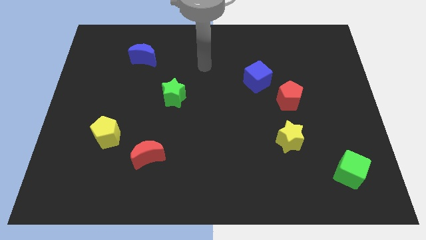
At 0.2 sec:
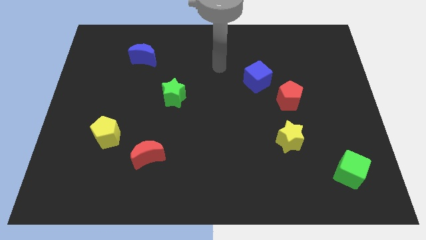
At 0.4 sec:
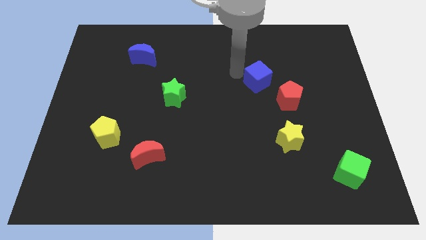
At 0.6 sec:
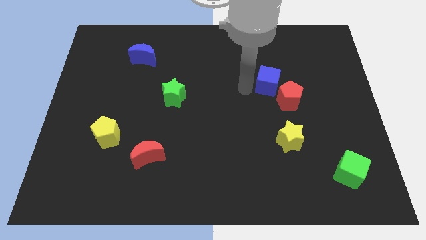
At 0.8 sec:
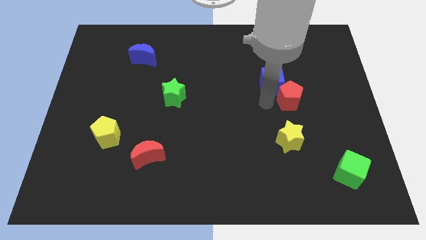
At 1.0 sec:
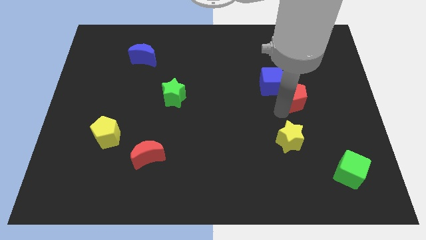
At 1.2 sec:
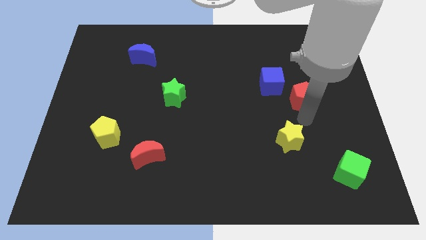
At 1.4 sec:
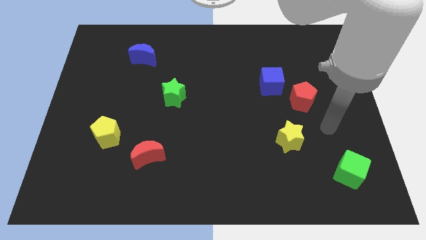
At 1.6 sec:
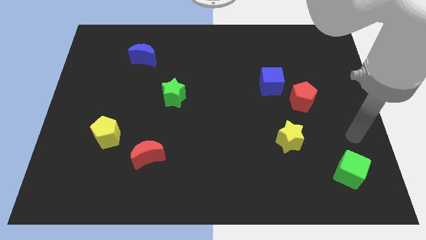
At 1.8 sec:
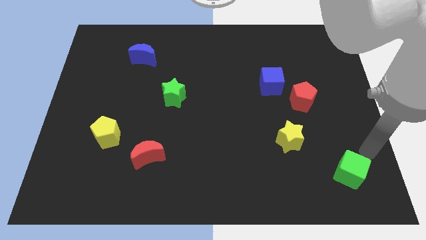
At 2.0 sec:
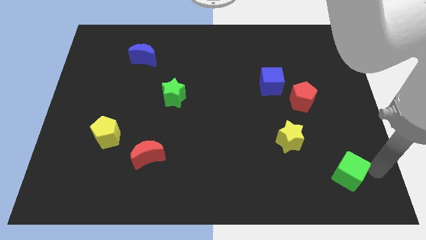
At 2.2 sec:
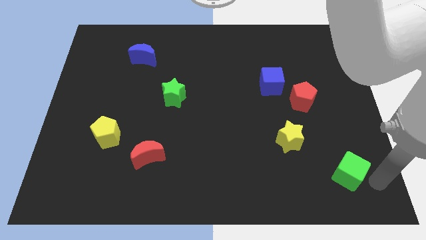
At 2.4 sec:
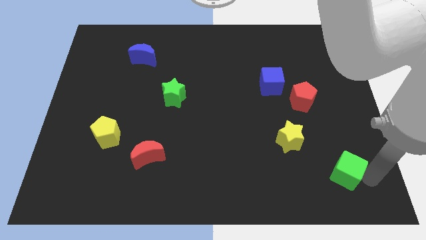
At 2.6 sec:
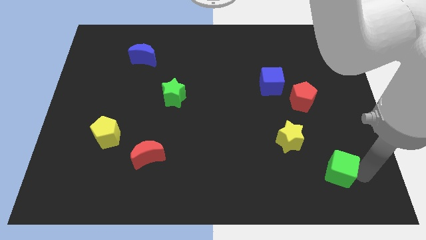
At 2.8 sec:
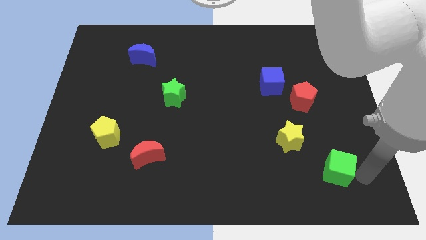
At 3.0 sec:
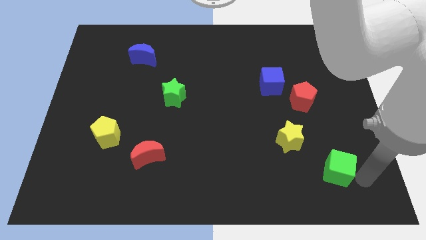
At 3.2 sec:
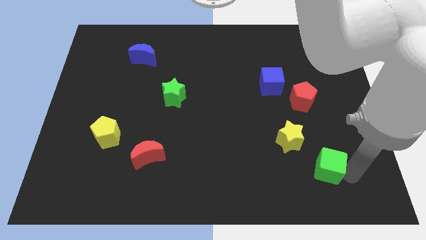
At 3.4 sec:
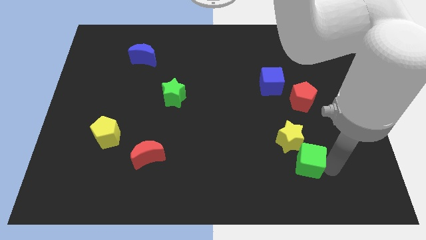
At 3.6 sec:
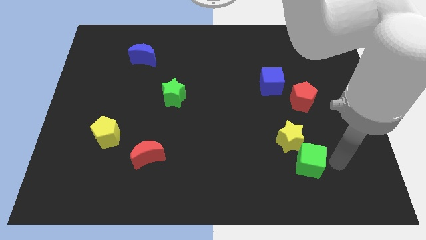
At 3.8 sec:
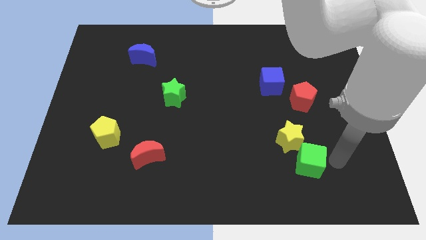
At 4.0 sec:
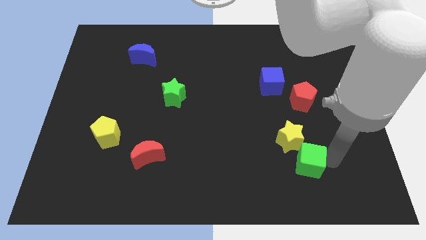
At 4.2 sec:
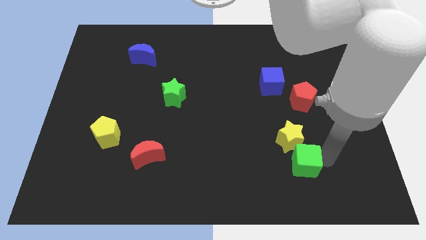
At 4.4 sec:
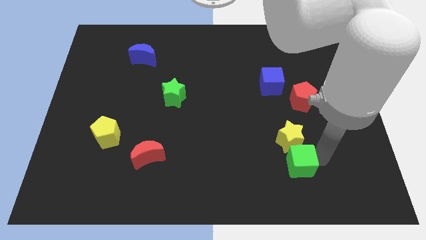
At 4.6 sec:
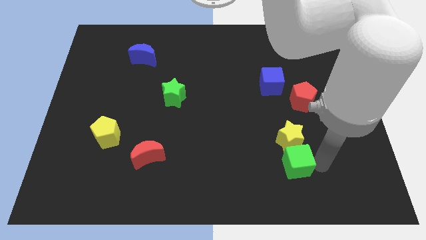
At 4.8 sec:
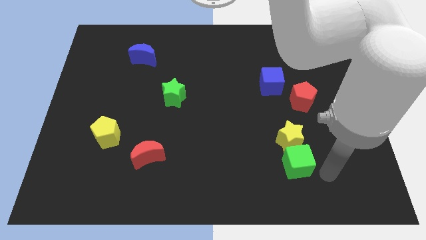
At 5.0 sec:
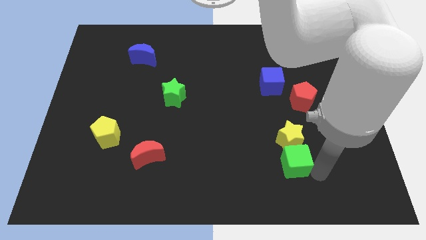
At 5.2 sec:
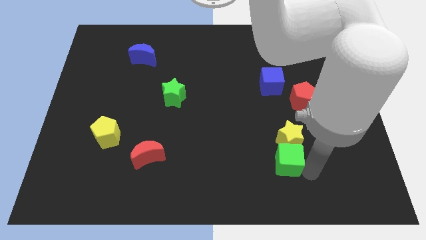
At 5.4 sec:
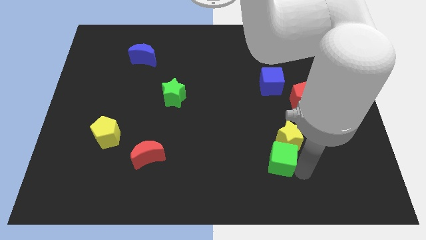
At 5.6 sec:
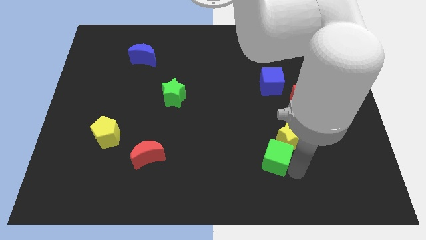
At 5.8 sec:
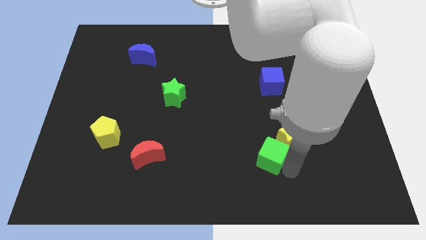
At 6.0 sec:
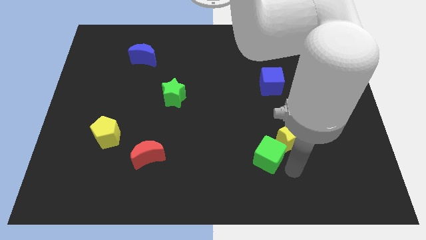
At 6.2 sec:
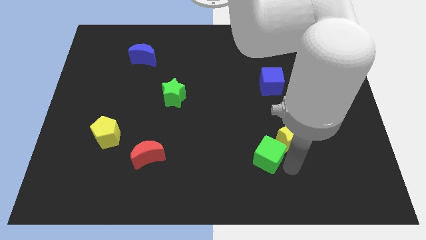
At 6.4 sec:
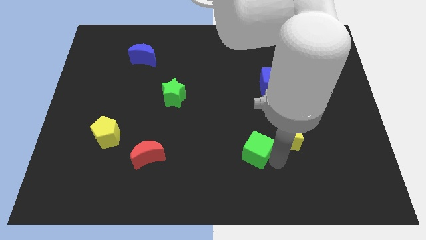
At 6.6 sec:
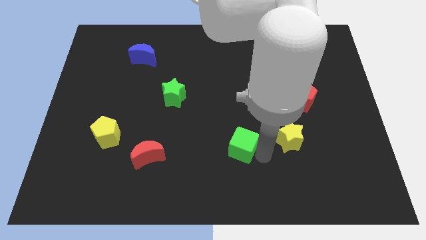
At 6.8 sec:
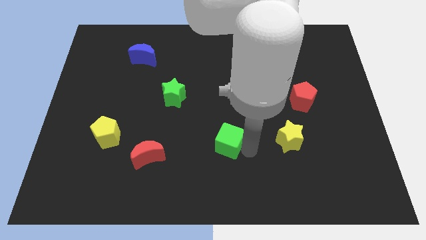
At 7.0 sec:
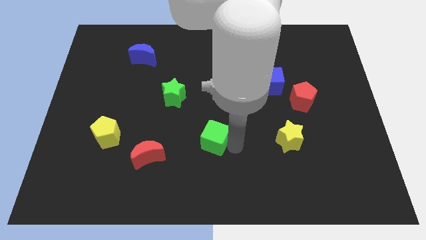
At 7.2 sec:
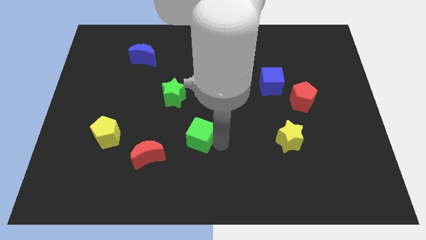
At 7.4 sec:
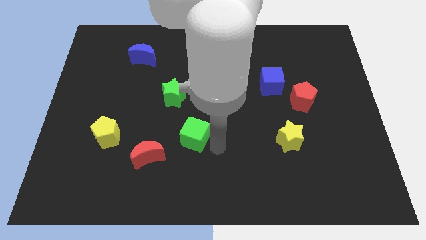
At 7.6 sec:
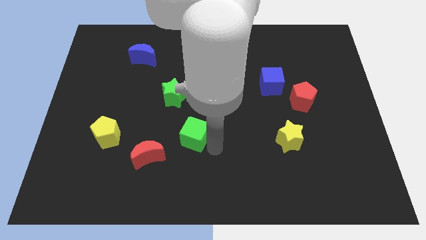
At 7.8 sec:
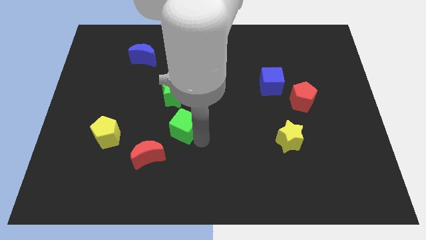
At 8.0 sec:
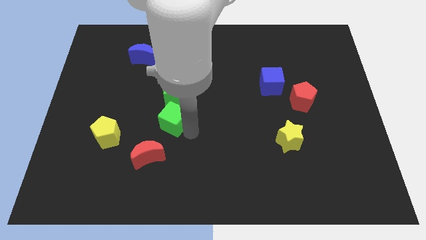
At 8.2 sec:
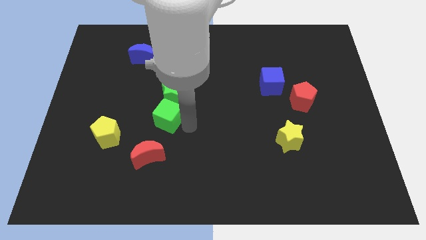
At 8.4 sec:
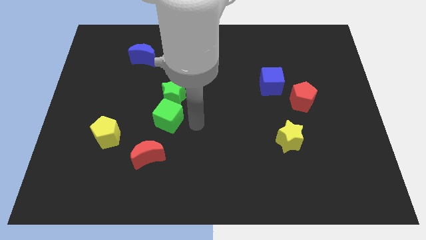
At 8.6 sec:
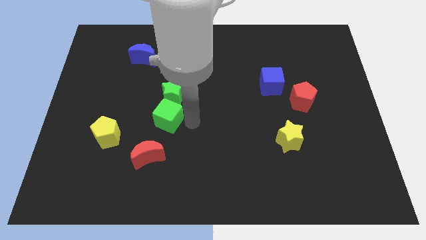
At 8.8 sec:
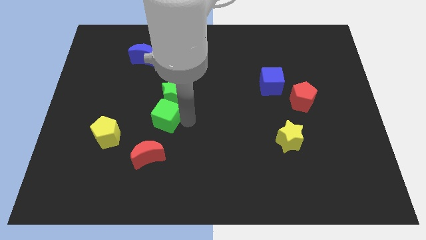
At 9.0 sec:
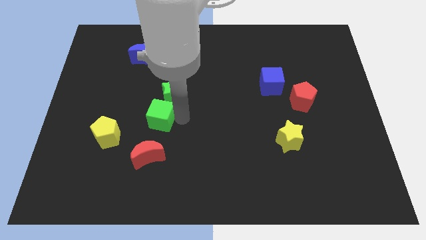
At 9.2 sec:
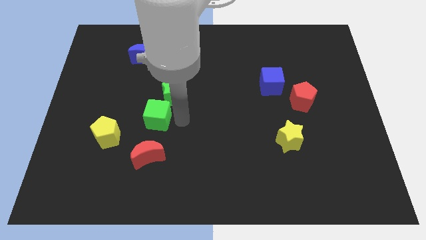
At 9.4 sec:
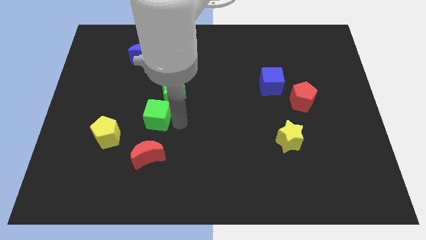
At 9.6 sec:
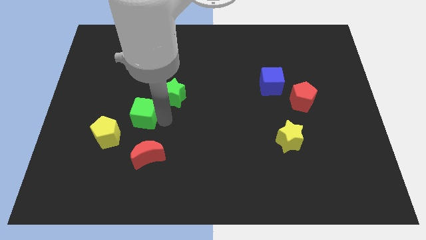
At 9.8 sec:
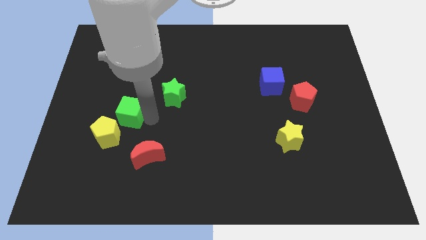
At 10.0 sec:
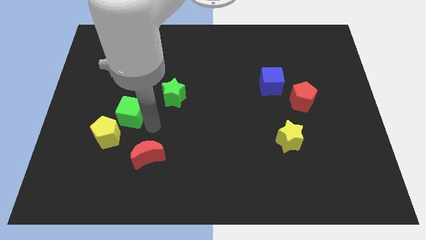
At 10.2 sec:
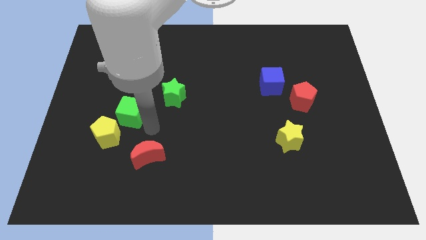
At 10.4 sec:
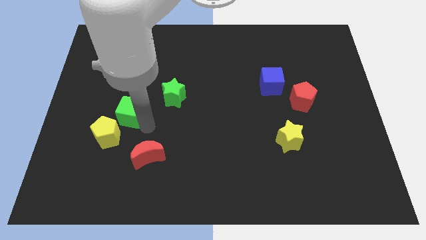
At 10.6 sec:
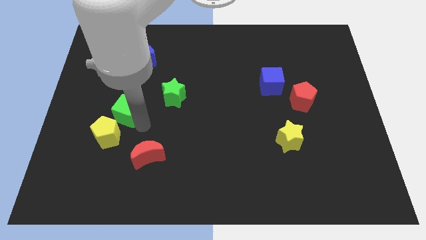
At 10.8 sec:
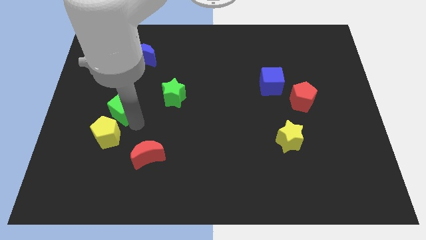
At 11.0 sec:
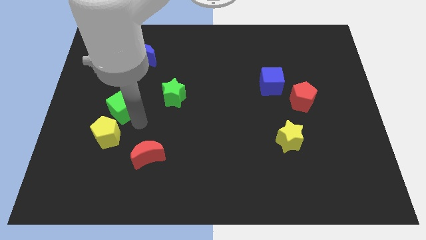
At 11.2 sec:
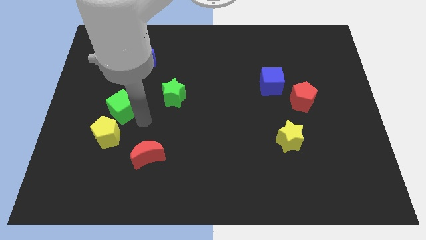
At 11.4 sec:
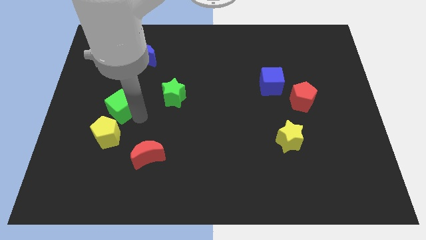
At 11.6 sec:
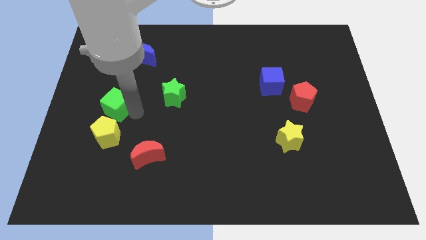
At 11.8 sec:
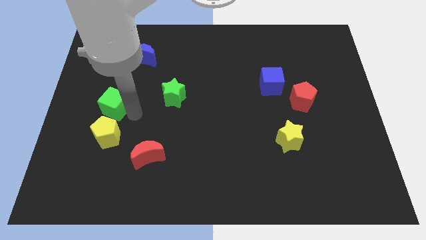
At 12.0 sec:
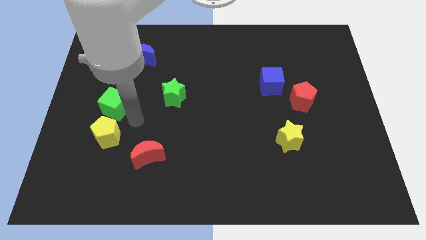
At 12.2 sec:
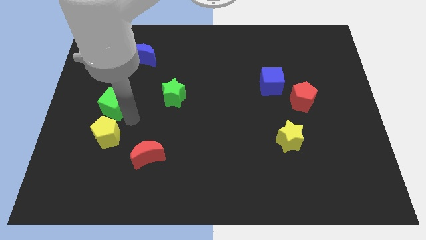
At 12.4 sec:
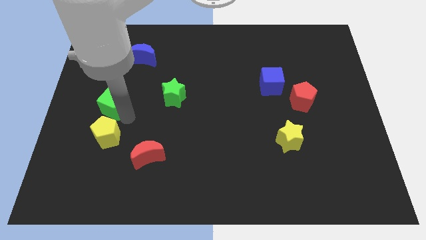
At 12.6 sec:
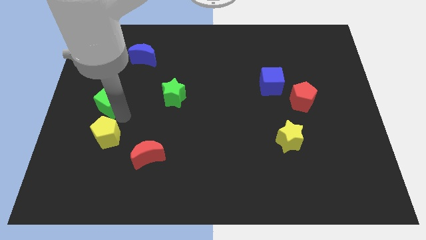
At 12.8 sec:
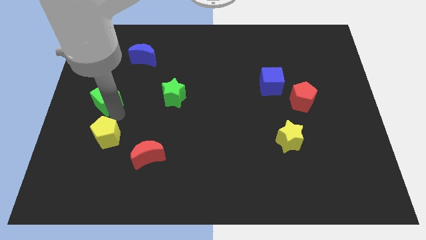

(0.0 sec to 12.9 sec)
put the green cube to the left side
